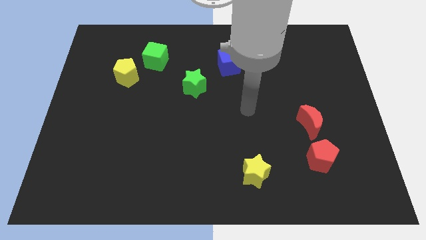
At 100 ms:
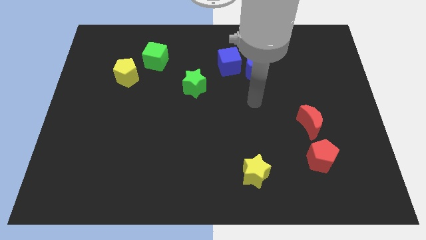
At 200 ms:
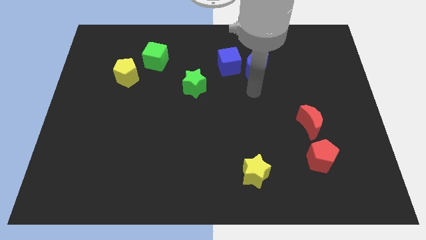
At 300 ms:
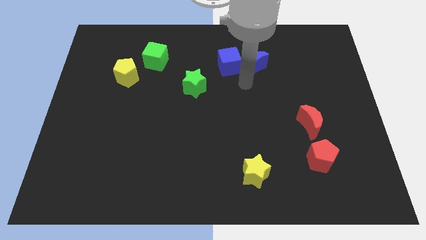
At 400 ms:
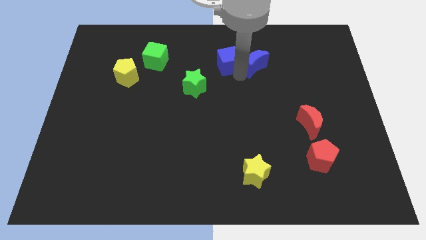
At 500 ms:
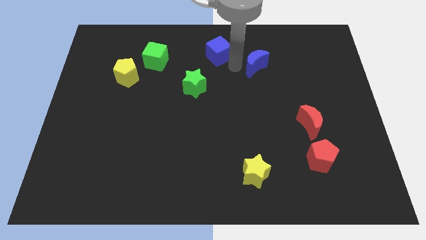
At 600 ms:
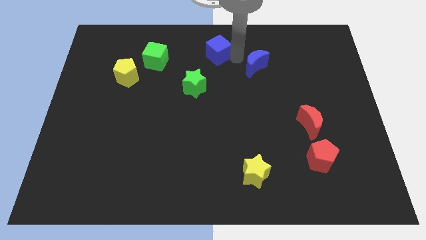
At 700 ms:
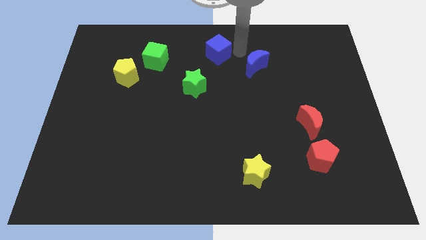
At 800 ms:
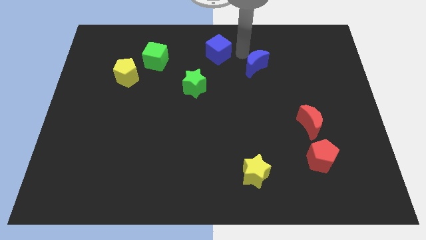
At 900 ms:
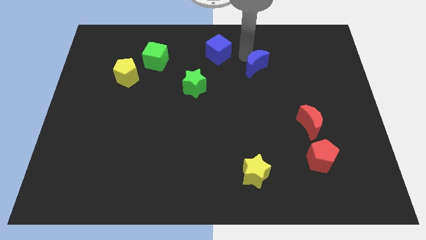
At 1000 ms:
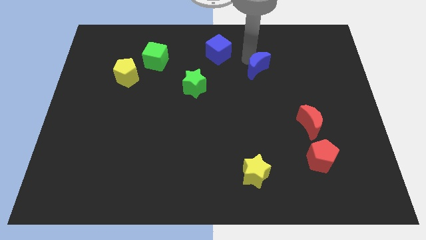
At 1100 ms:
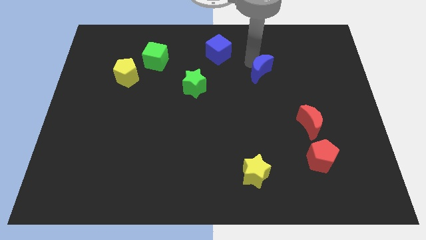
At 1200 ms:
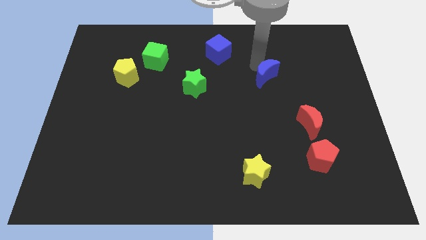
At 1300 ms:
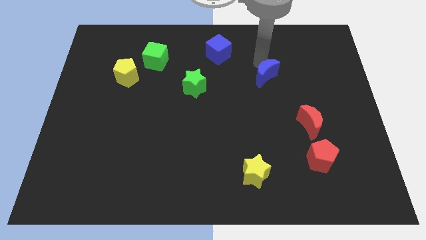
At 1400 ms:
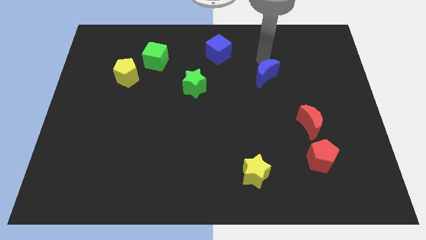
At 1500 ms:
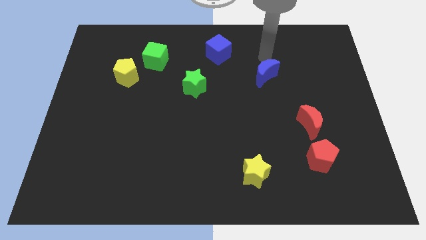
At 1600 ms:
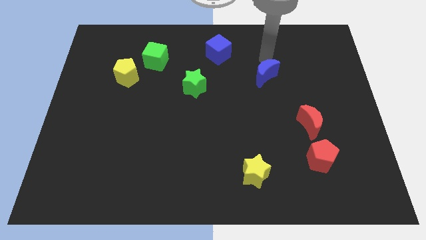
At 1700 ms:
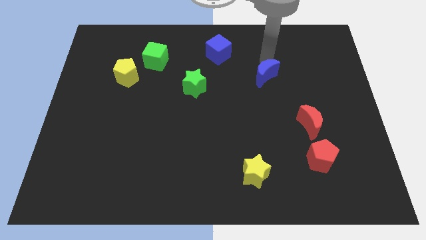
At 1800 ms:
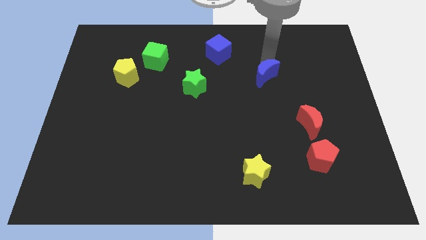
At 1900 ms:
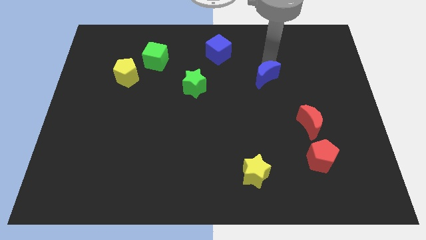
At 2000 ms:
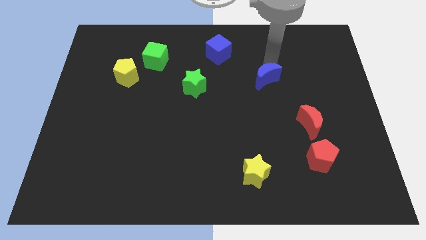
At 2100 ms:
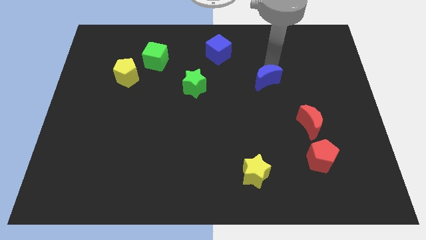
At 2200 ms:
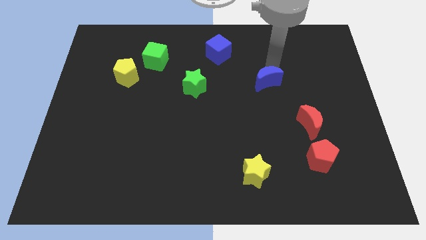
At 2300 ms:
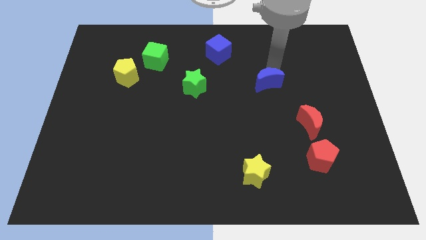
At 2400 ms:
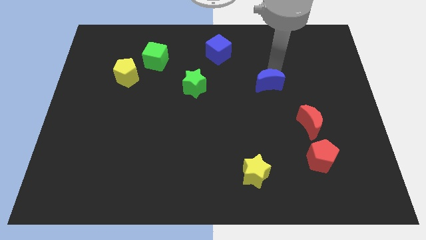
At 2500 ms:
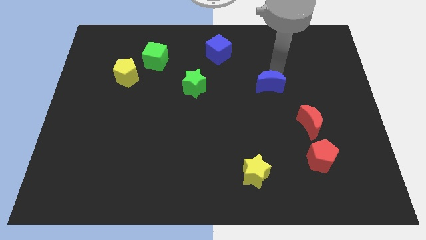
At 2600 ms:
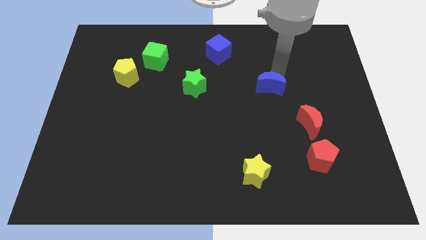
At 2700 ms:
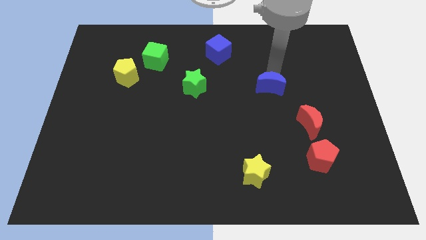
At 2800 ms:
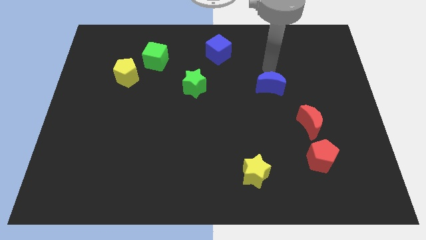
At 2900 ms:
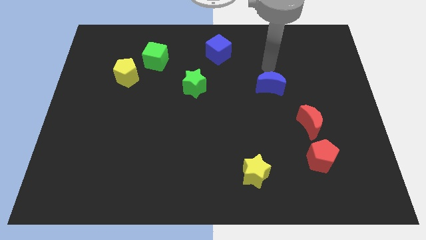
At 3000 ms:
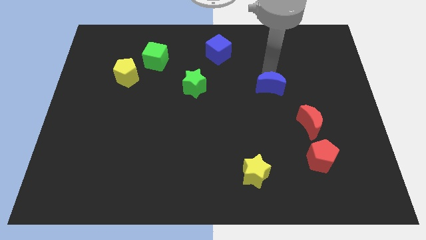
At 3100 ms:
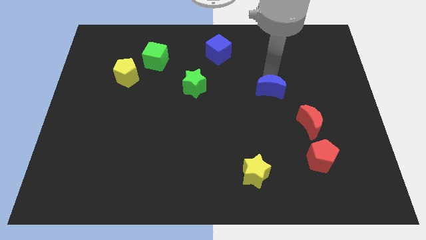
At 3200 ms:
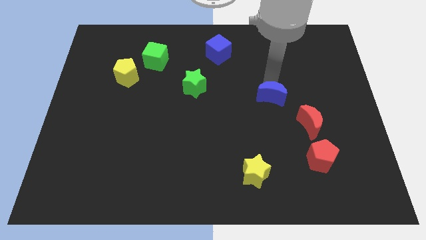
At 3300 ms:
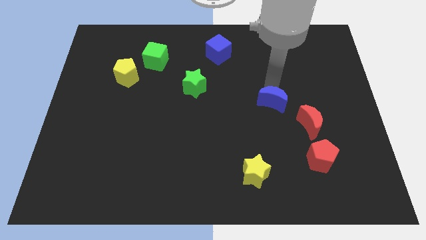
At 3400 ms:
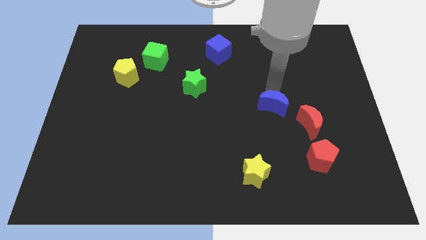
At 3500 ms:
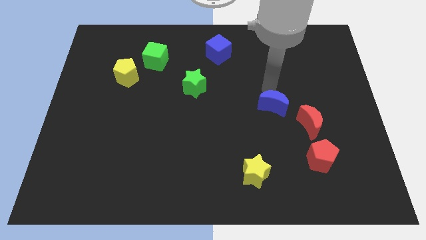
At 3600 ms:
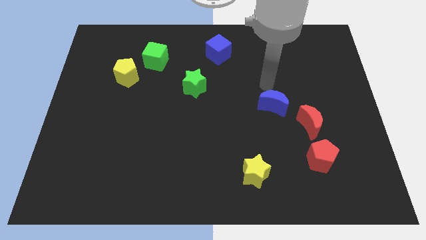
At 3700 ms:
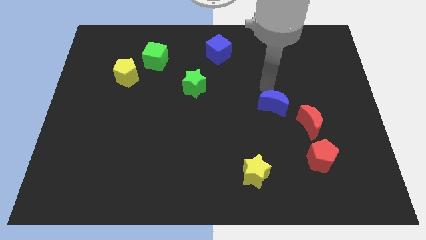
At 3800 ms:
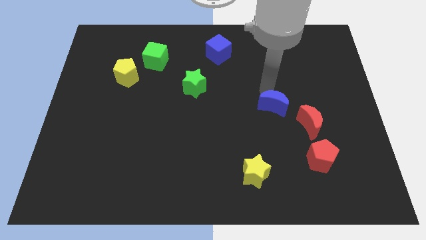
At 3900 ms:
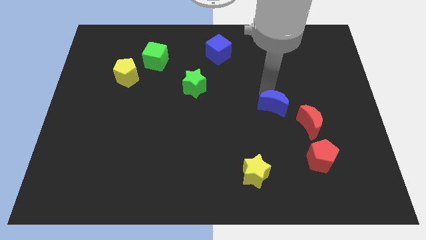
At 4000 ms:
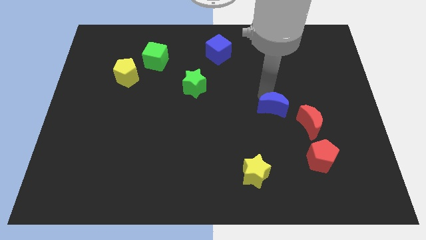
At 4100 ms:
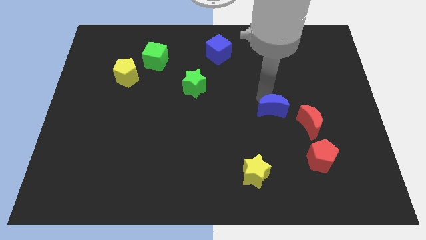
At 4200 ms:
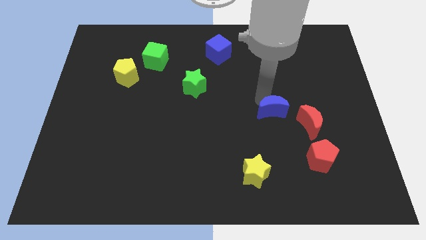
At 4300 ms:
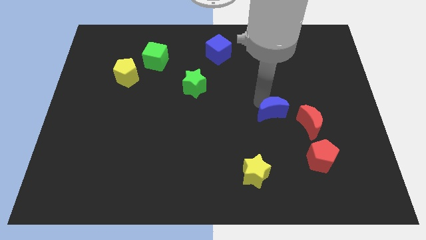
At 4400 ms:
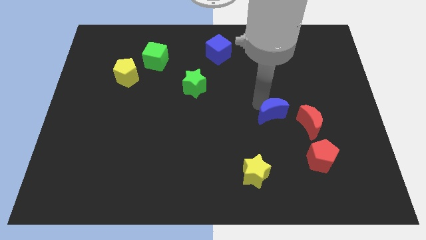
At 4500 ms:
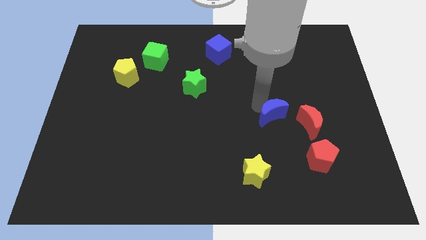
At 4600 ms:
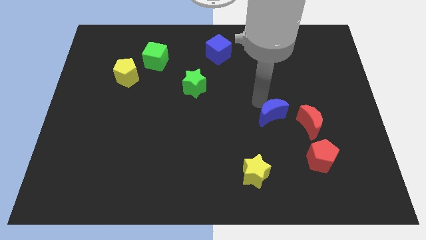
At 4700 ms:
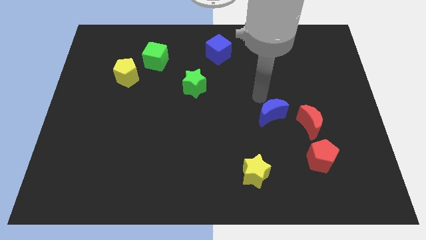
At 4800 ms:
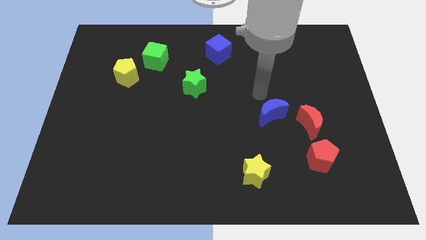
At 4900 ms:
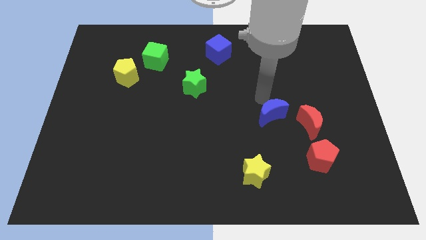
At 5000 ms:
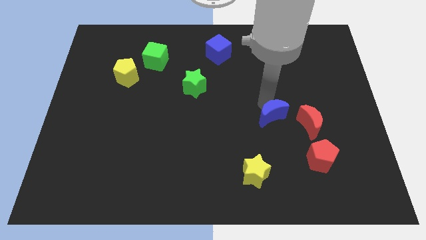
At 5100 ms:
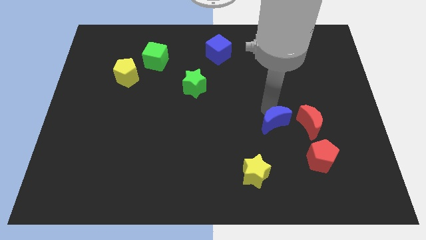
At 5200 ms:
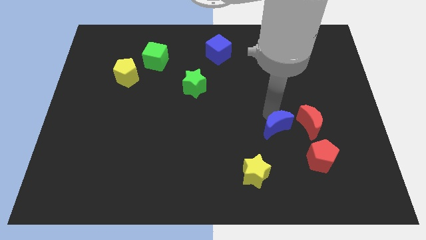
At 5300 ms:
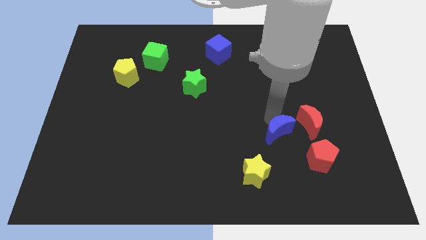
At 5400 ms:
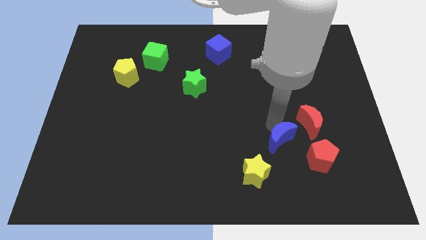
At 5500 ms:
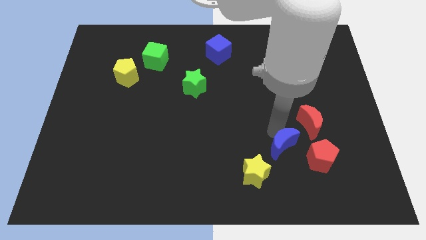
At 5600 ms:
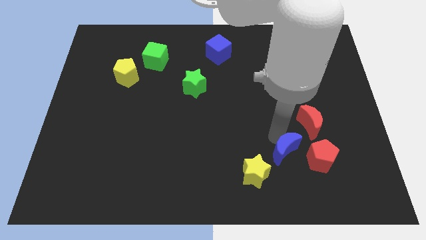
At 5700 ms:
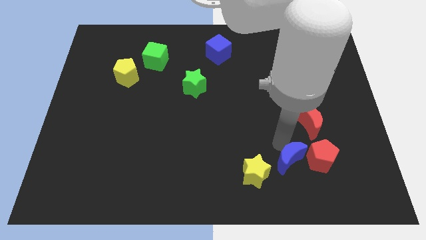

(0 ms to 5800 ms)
slide the blue moon diagonally down and to the left of the red pentagon

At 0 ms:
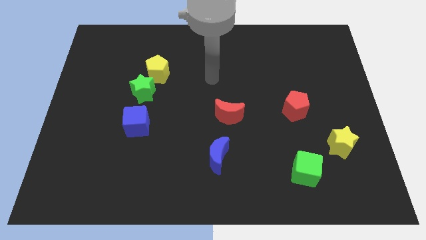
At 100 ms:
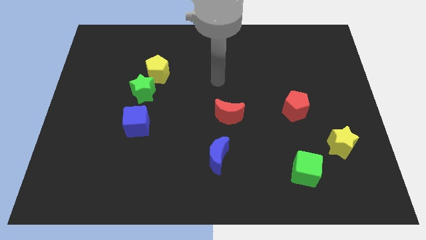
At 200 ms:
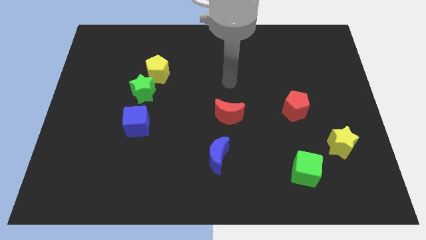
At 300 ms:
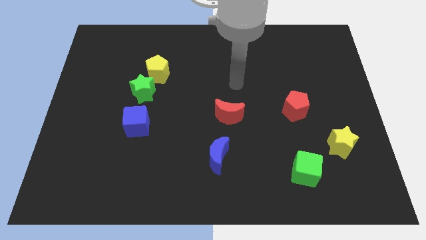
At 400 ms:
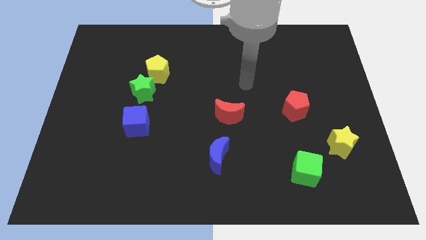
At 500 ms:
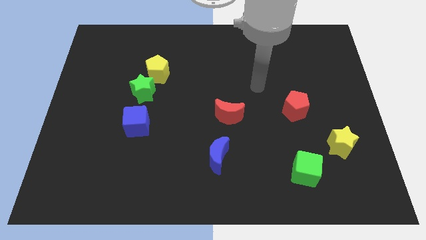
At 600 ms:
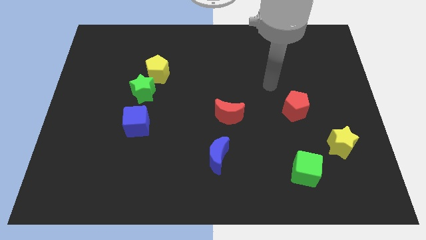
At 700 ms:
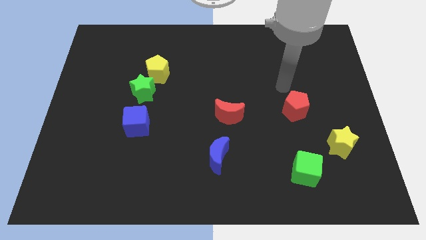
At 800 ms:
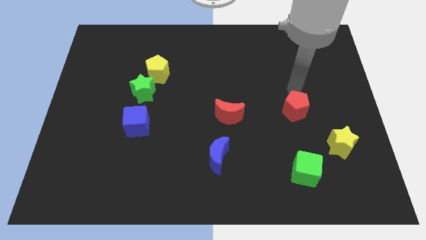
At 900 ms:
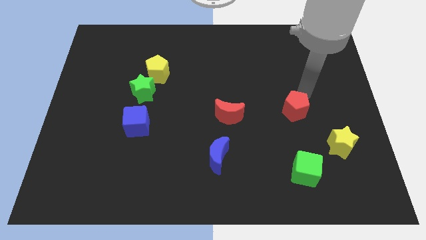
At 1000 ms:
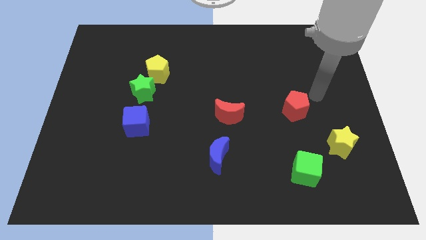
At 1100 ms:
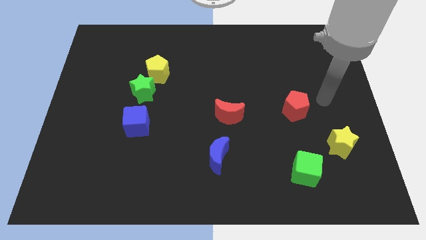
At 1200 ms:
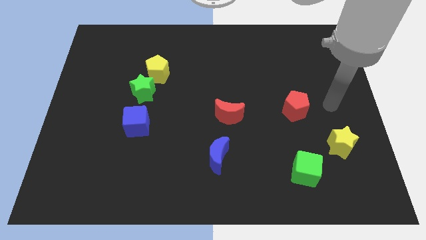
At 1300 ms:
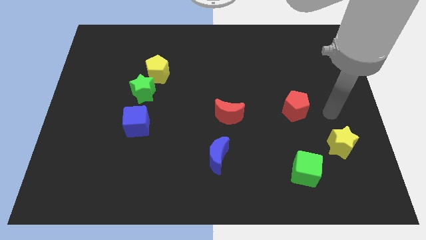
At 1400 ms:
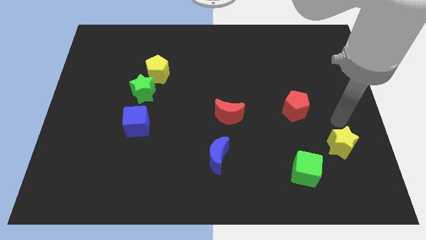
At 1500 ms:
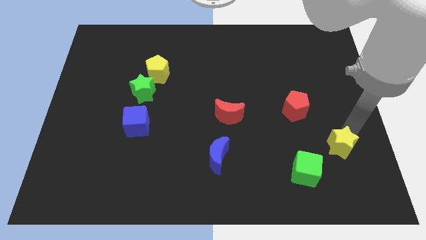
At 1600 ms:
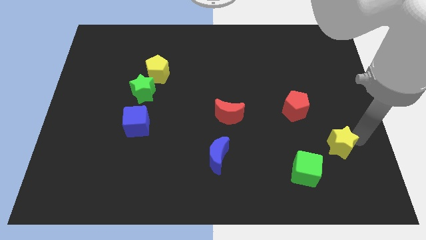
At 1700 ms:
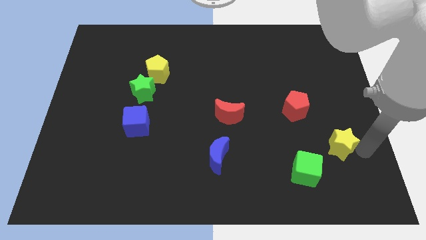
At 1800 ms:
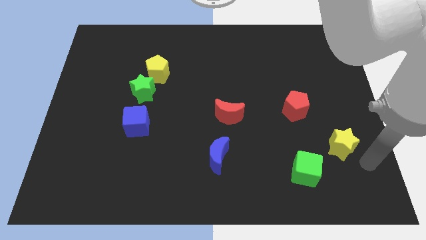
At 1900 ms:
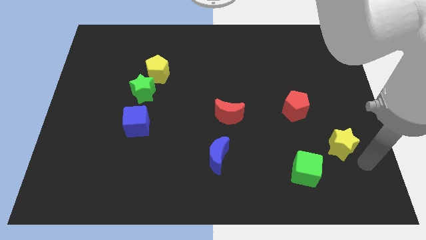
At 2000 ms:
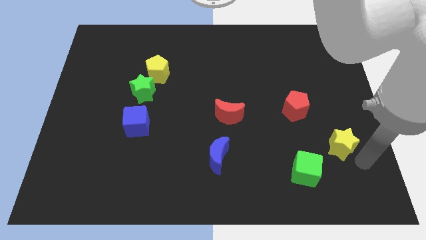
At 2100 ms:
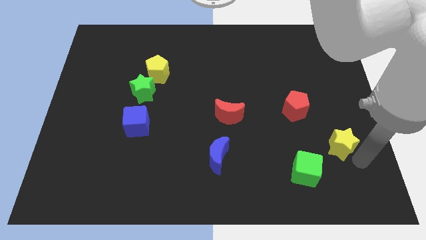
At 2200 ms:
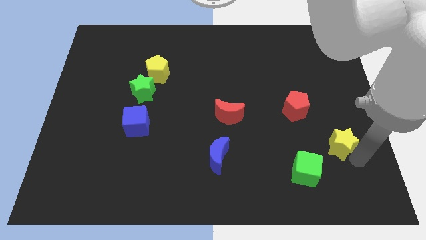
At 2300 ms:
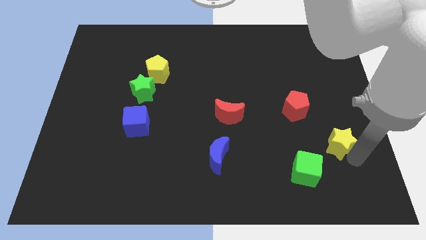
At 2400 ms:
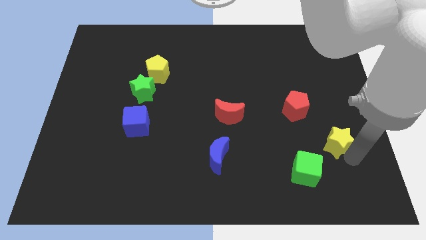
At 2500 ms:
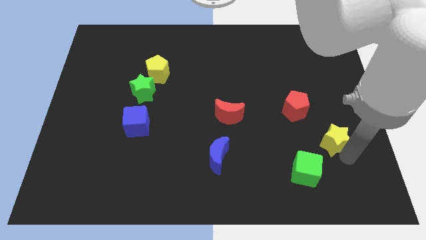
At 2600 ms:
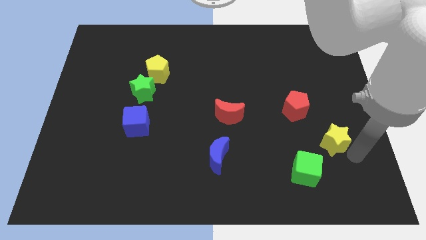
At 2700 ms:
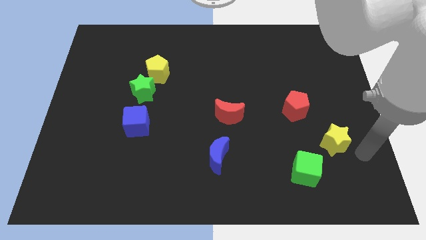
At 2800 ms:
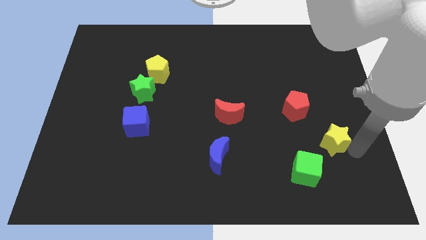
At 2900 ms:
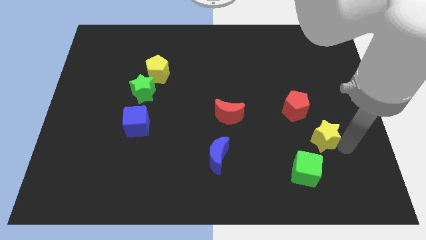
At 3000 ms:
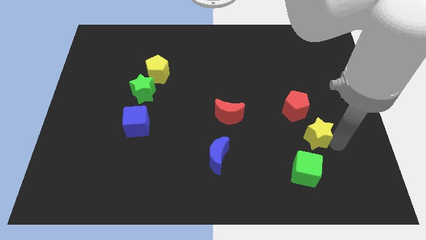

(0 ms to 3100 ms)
move the yellow star above the green cube
